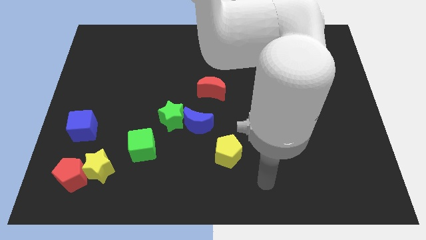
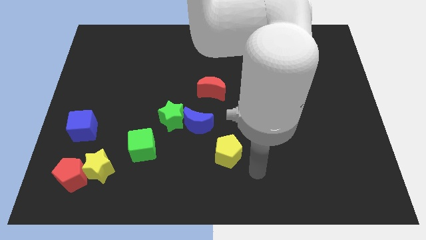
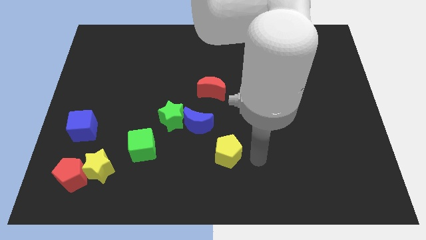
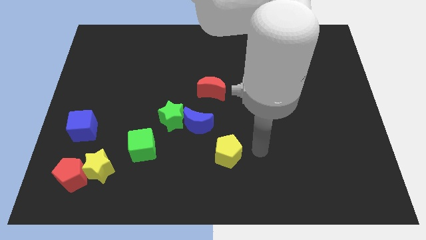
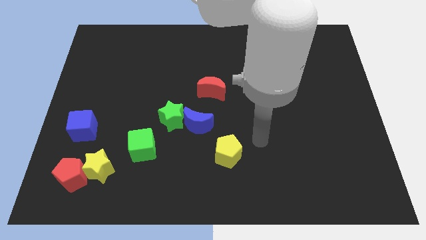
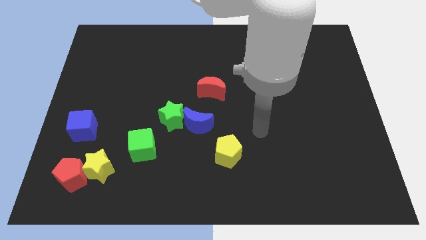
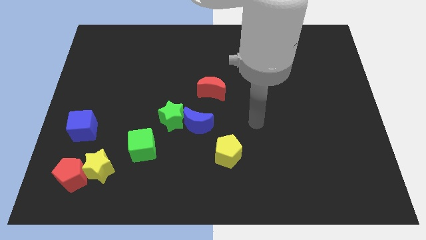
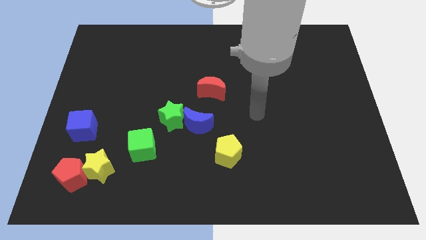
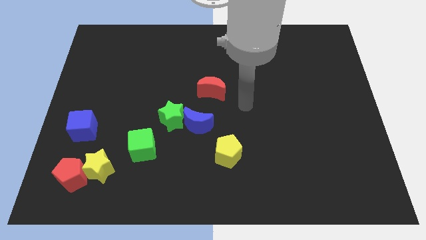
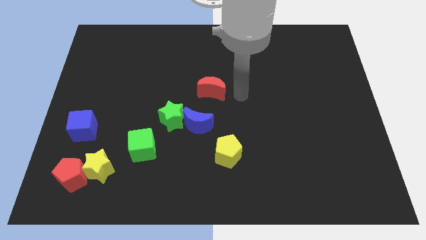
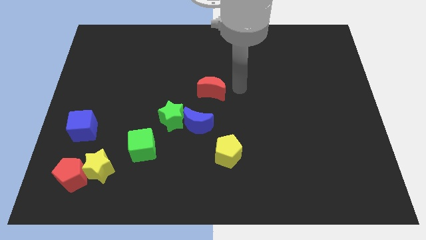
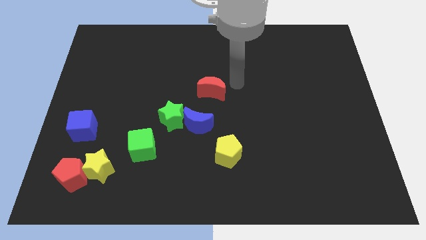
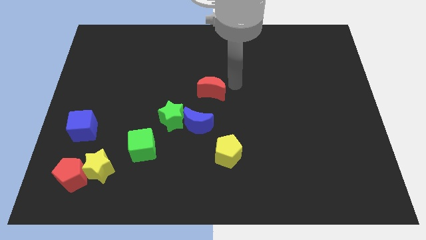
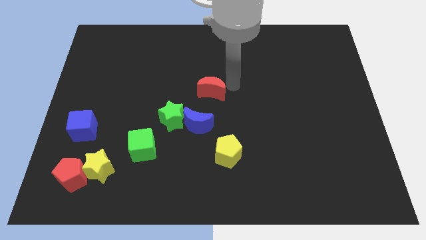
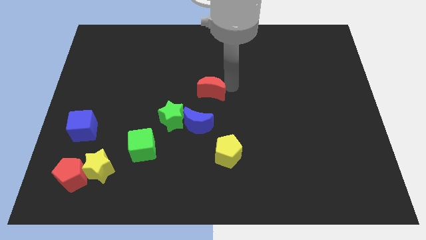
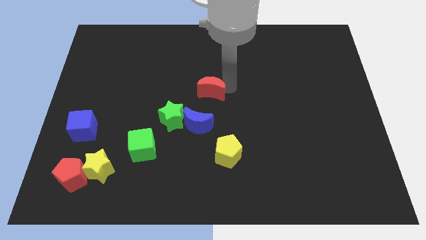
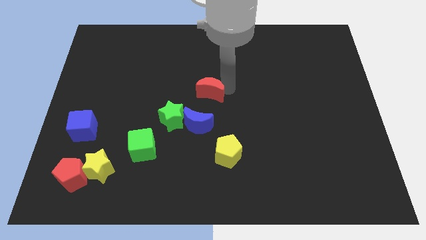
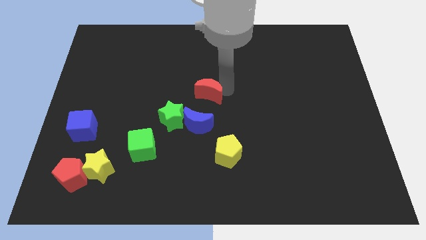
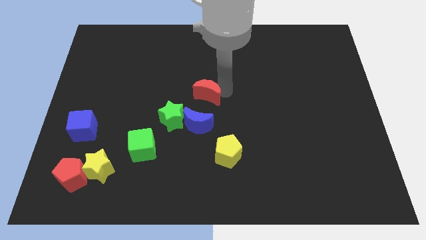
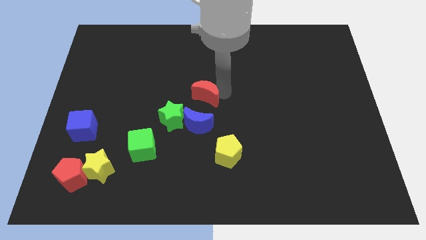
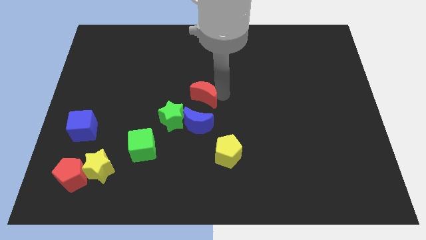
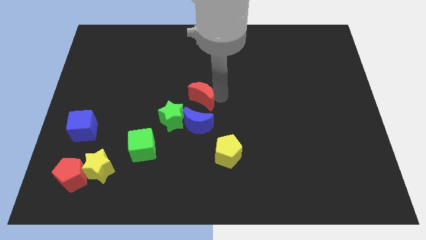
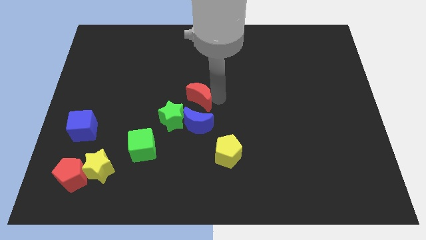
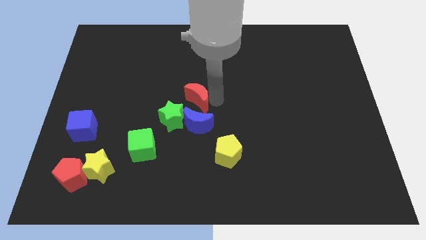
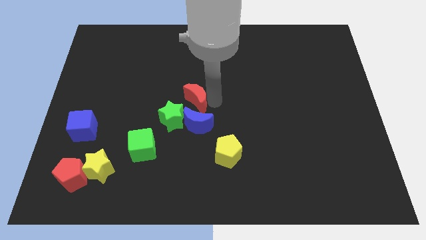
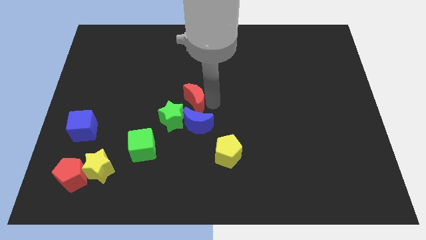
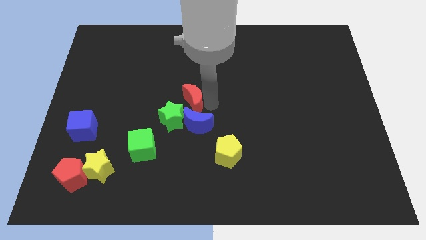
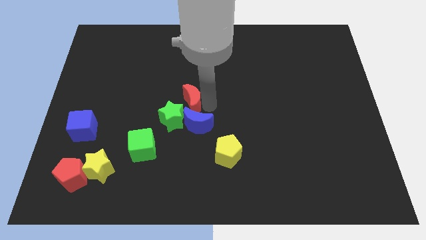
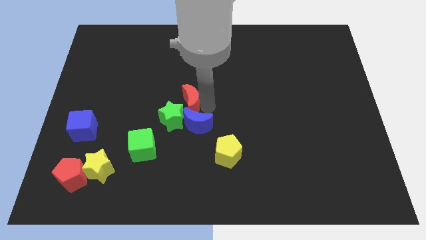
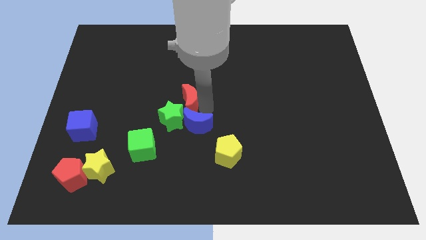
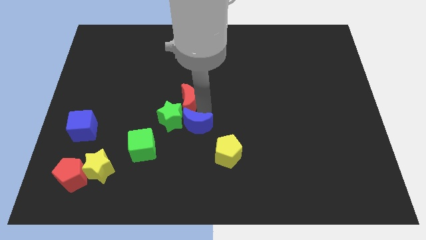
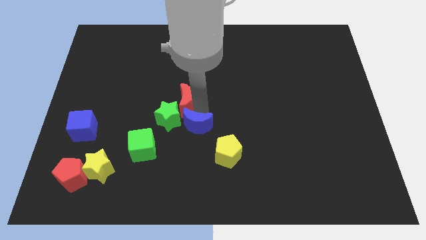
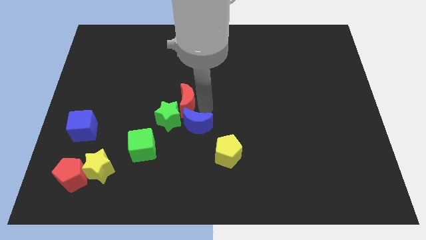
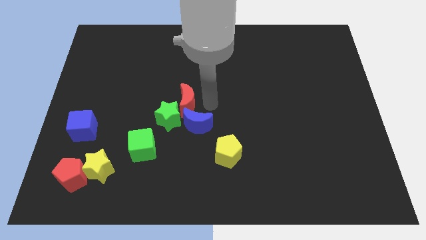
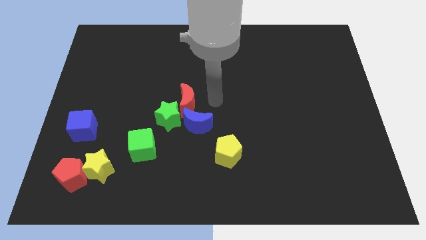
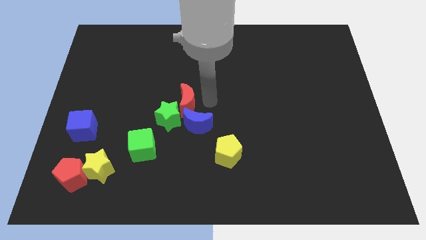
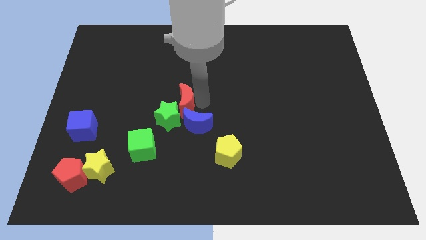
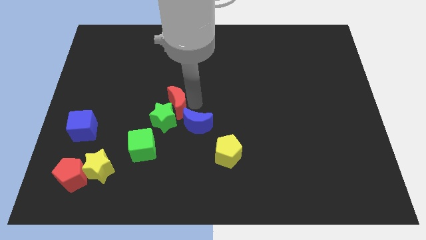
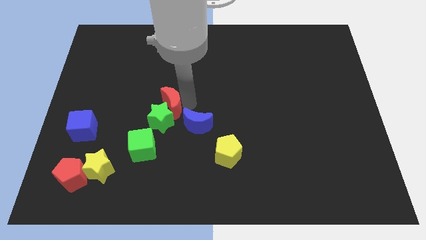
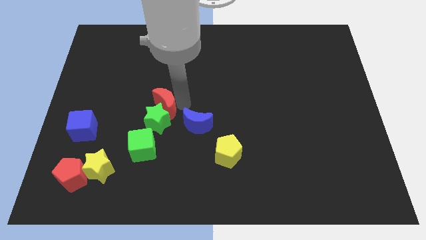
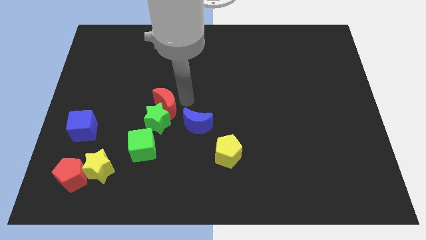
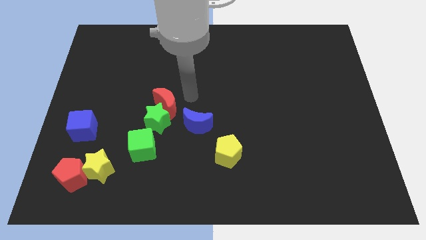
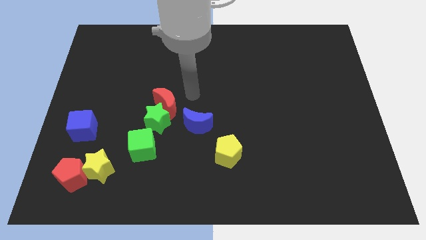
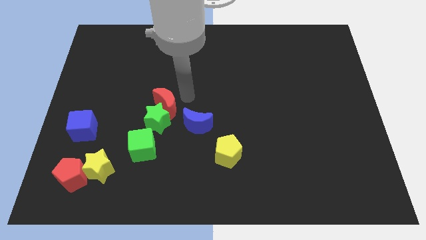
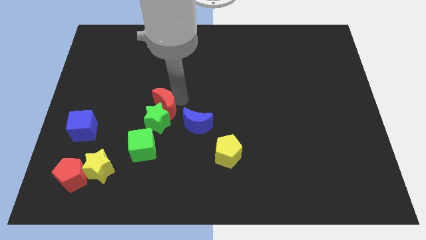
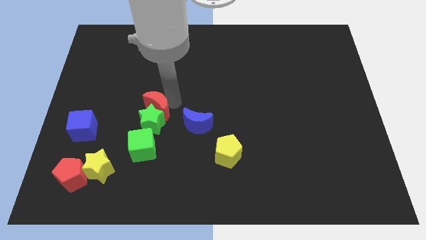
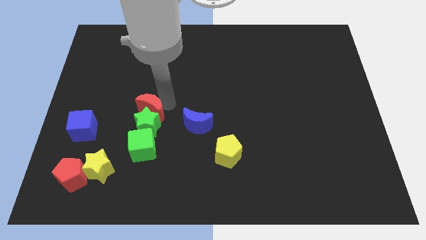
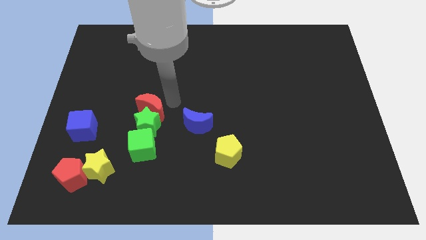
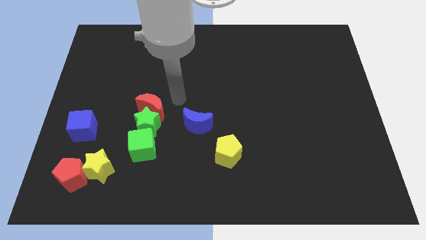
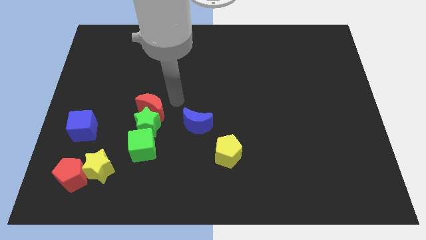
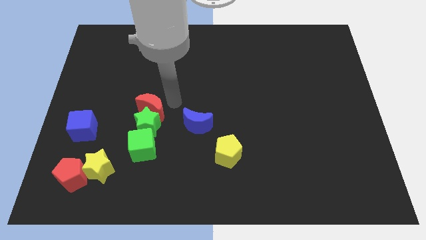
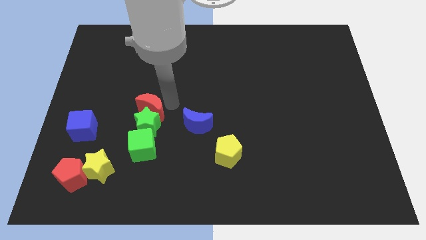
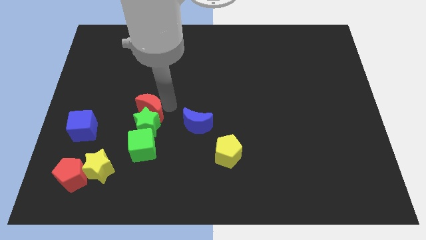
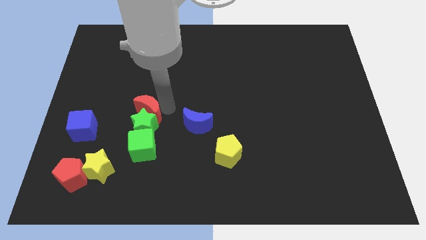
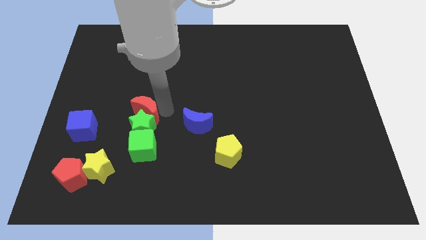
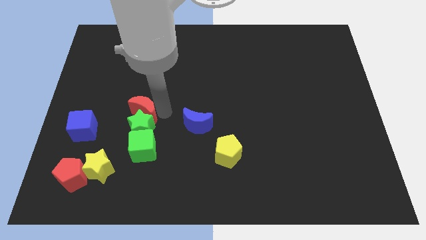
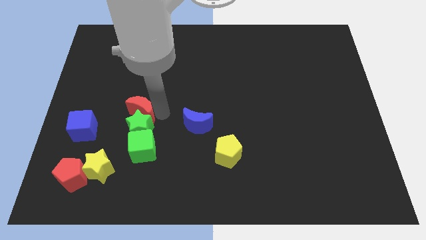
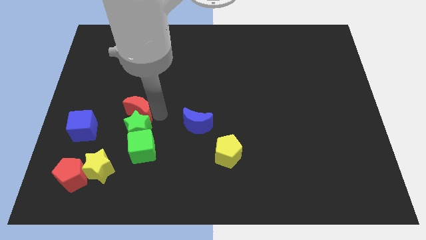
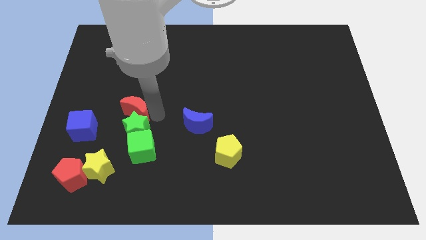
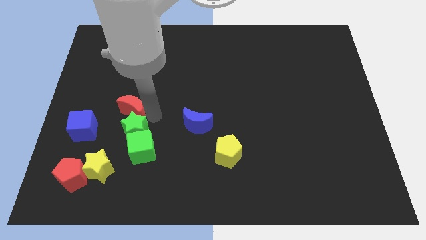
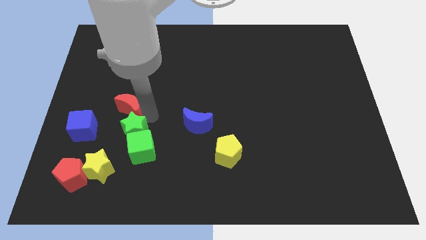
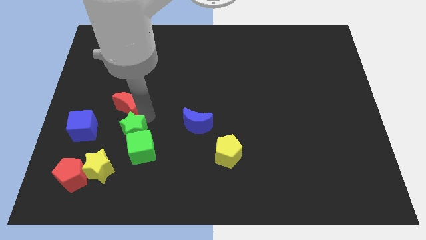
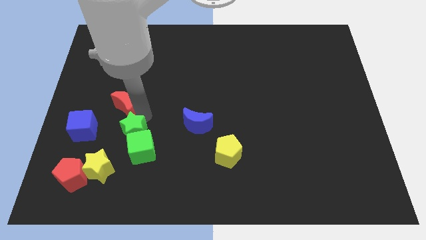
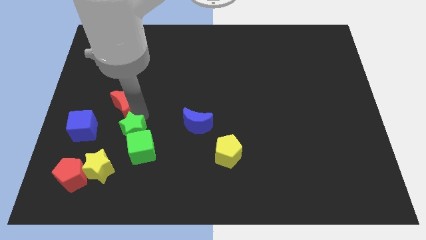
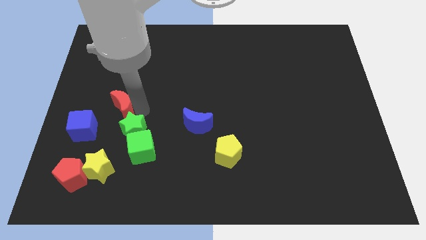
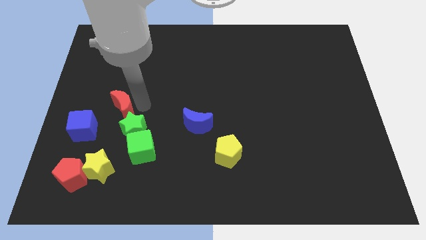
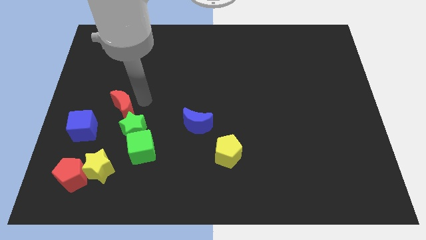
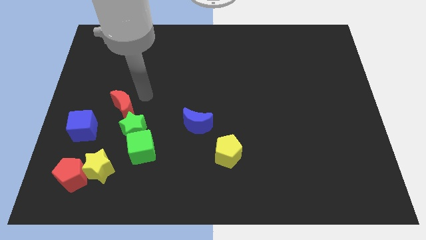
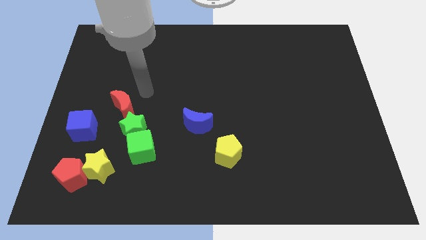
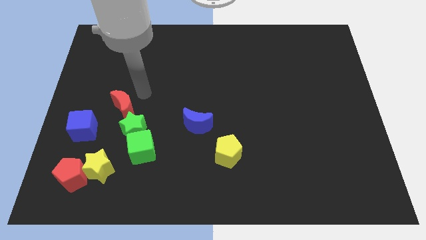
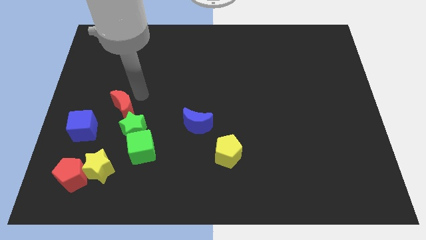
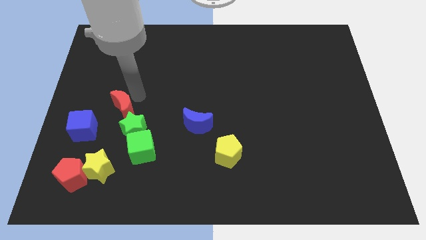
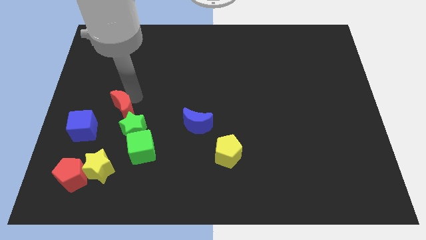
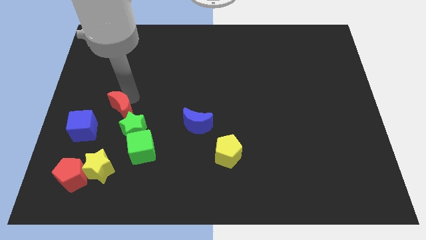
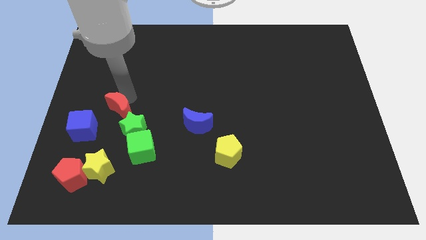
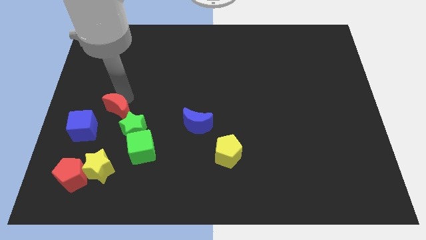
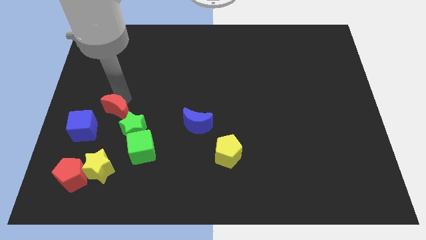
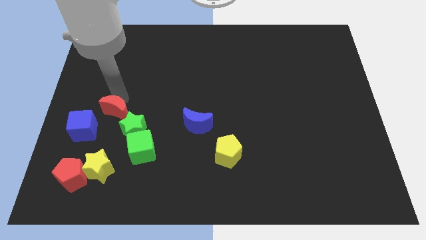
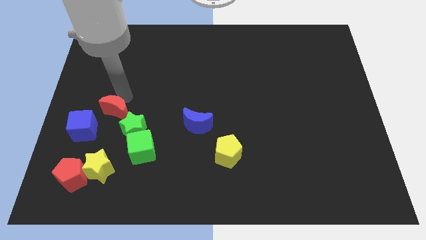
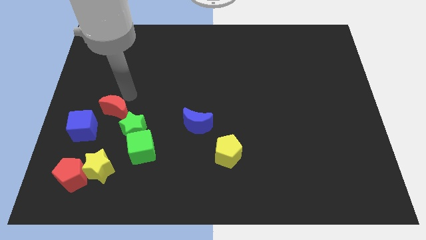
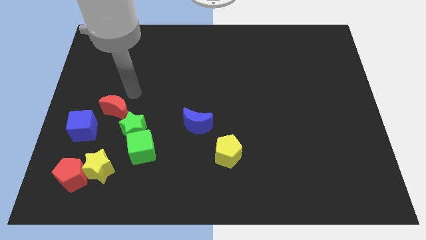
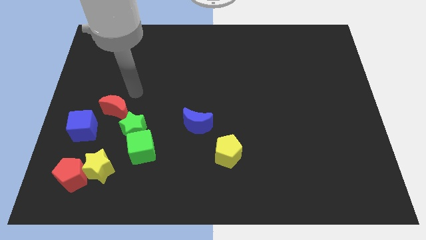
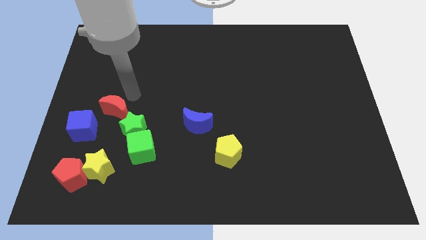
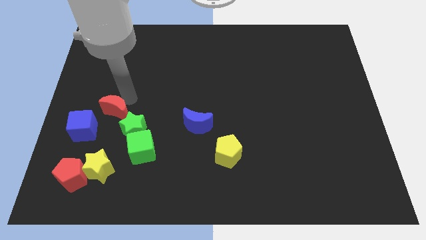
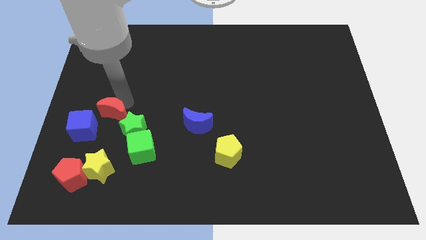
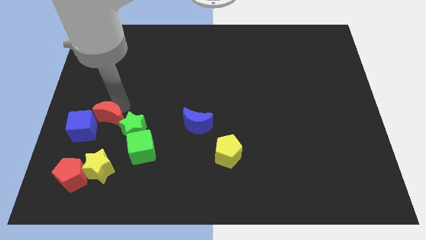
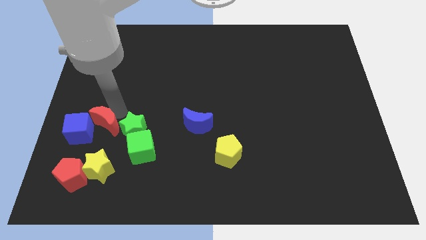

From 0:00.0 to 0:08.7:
put the red moon close to the blue cube
